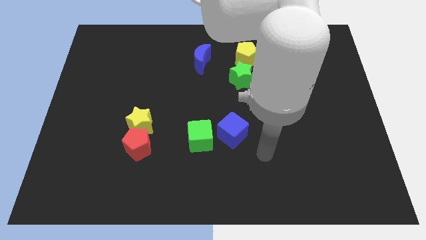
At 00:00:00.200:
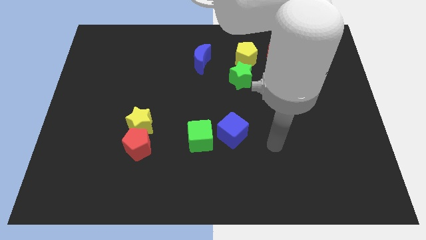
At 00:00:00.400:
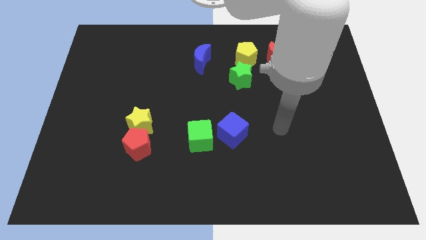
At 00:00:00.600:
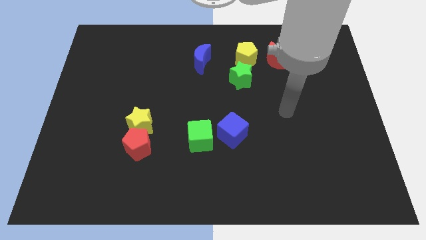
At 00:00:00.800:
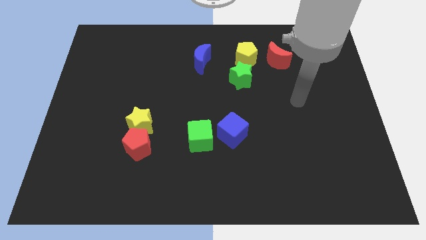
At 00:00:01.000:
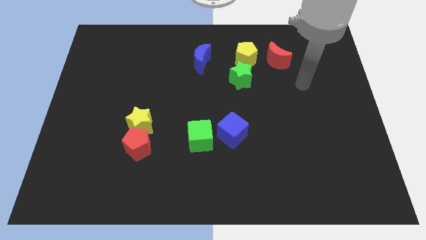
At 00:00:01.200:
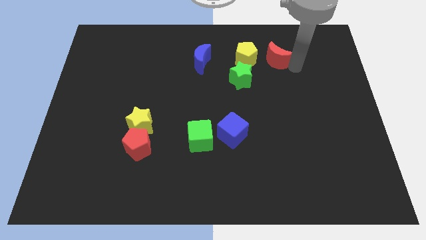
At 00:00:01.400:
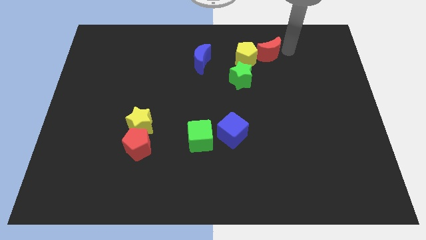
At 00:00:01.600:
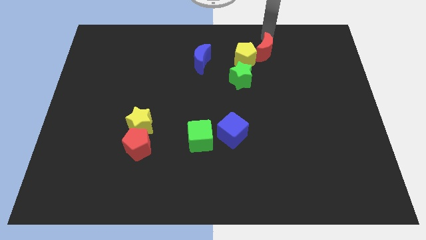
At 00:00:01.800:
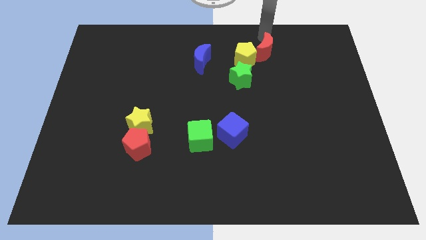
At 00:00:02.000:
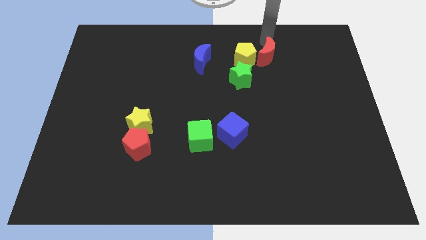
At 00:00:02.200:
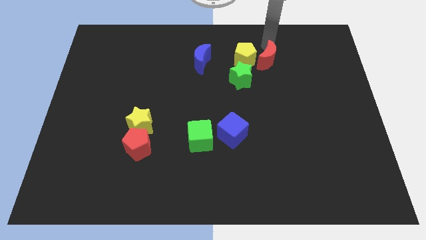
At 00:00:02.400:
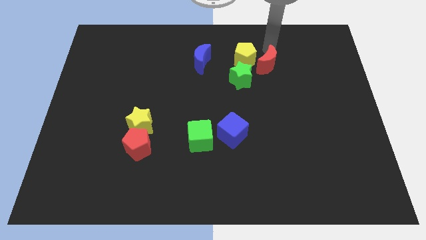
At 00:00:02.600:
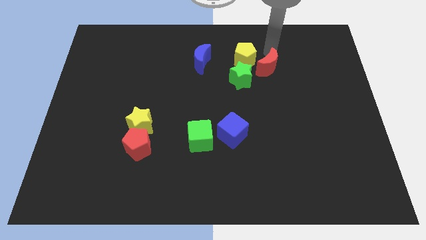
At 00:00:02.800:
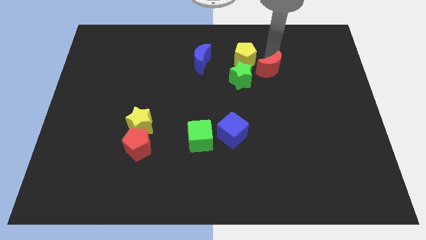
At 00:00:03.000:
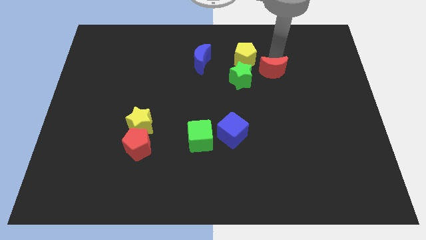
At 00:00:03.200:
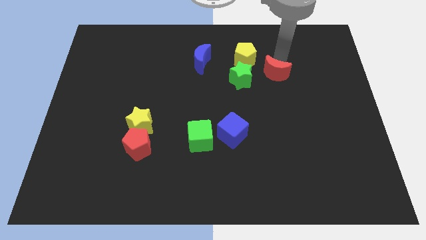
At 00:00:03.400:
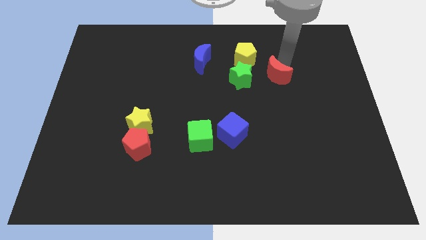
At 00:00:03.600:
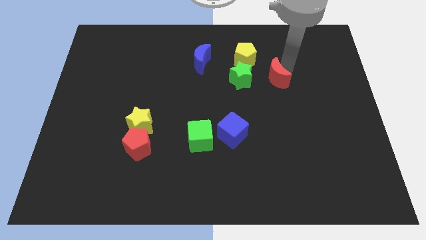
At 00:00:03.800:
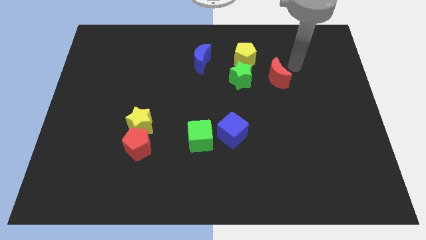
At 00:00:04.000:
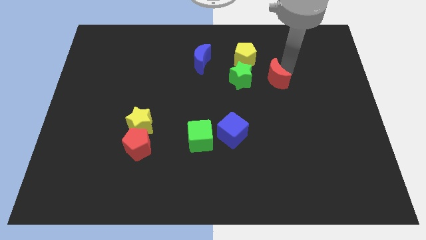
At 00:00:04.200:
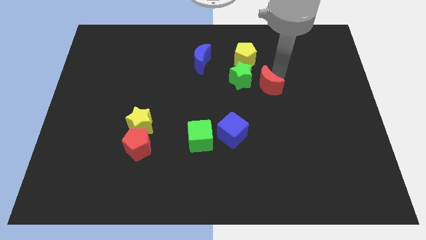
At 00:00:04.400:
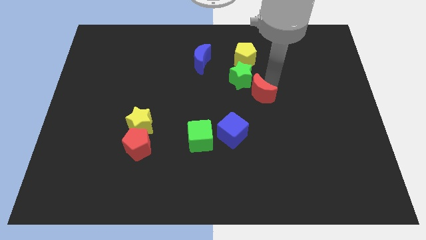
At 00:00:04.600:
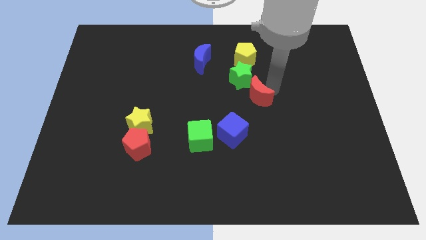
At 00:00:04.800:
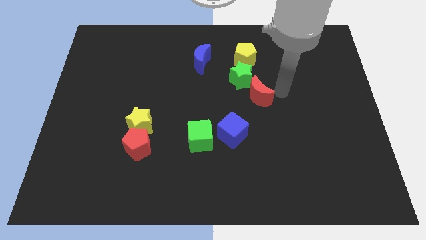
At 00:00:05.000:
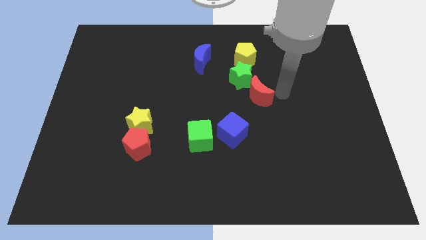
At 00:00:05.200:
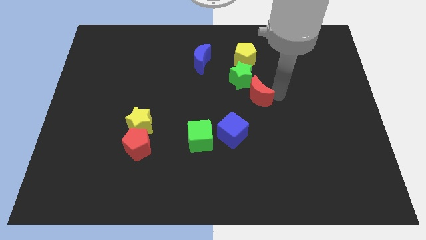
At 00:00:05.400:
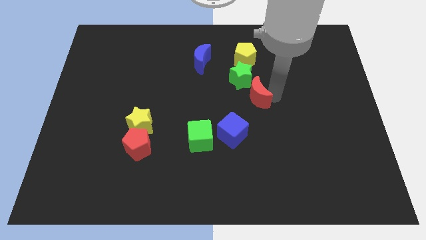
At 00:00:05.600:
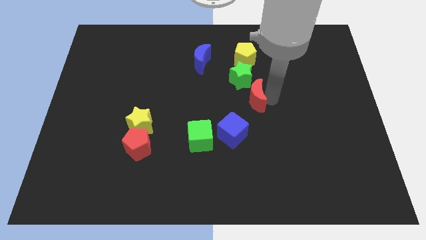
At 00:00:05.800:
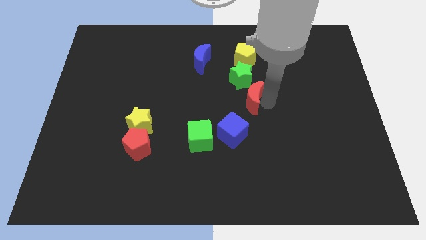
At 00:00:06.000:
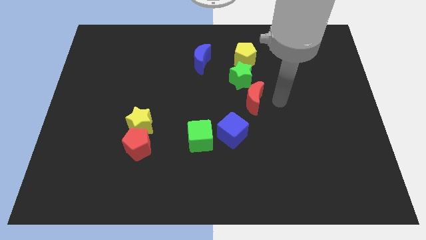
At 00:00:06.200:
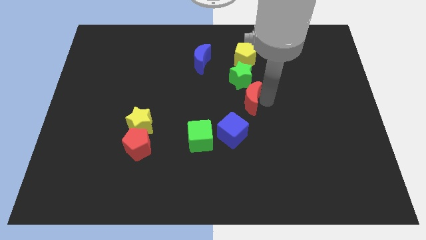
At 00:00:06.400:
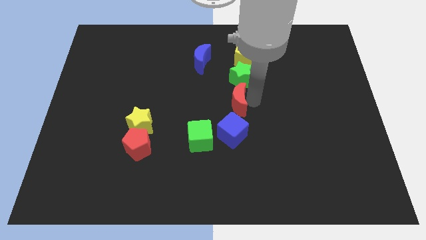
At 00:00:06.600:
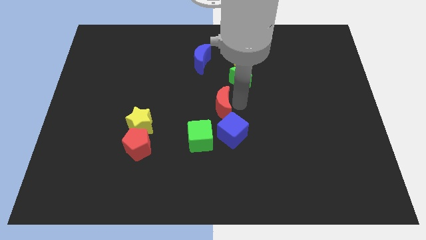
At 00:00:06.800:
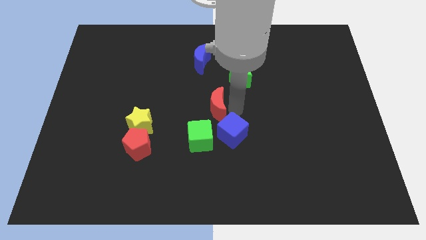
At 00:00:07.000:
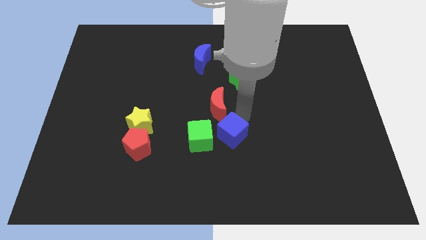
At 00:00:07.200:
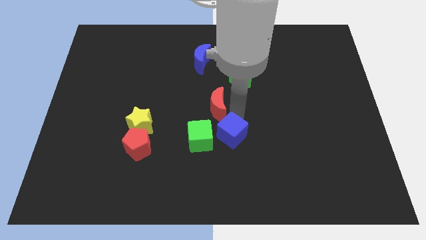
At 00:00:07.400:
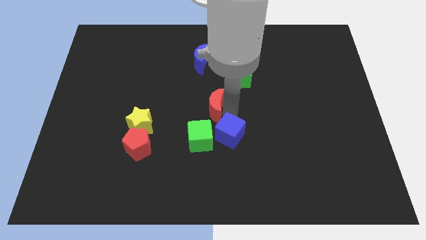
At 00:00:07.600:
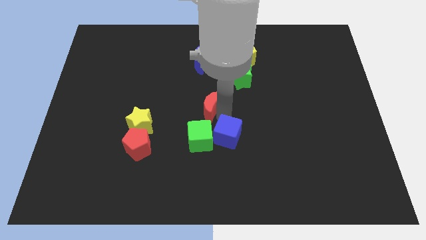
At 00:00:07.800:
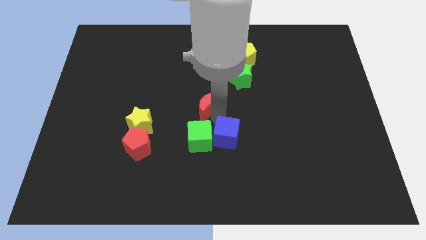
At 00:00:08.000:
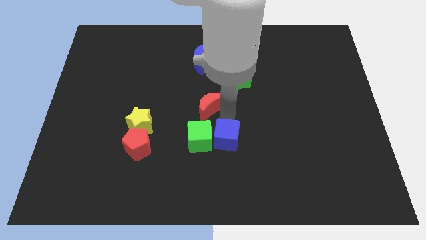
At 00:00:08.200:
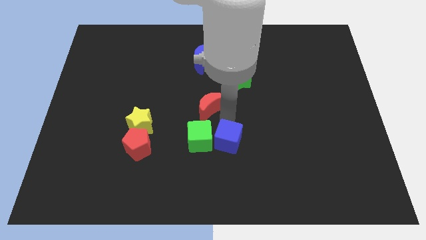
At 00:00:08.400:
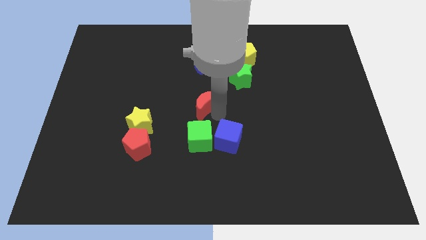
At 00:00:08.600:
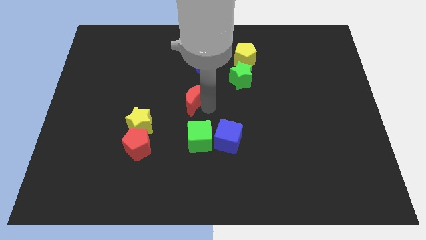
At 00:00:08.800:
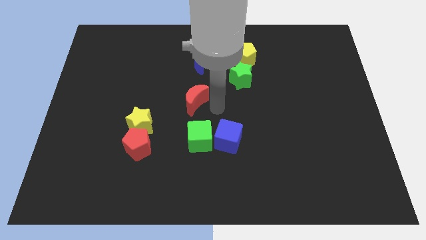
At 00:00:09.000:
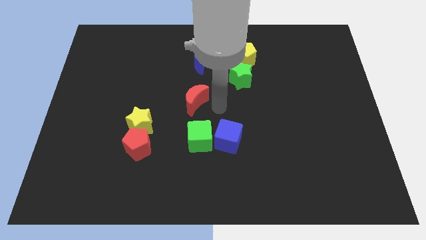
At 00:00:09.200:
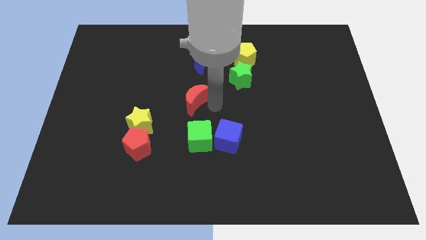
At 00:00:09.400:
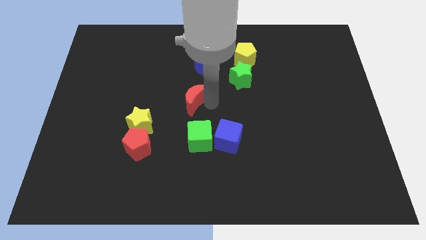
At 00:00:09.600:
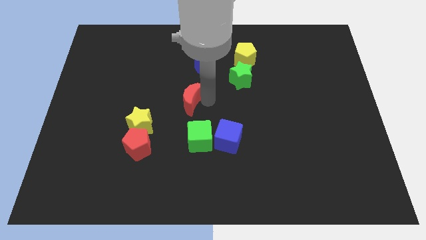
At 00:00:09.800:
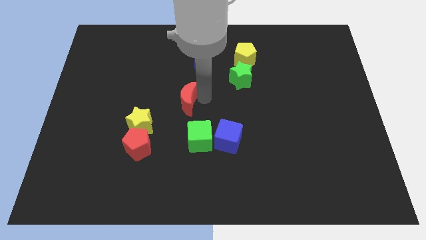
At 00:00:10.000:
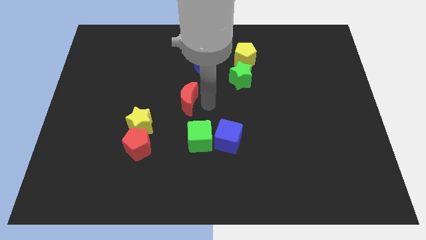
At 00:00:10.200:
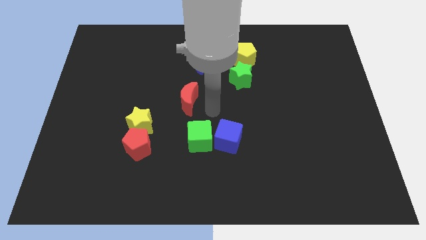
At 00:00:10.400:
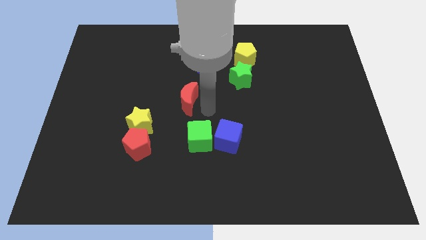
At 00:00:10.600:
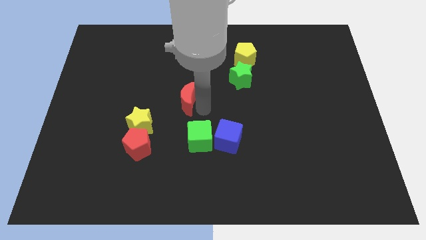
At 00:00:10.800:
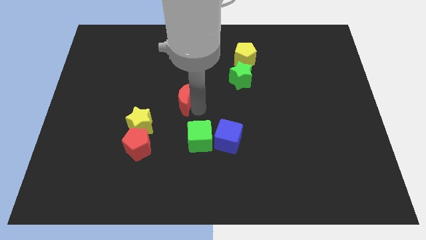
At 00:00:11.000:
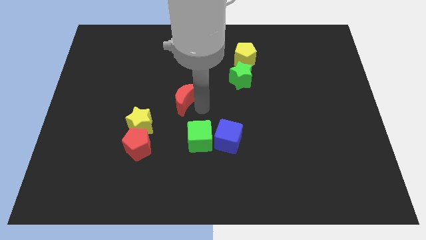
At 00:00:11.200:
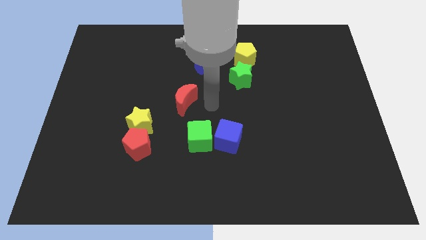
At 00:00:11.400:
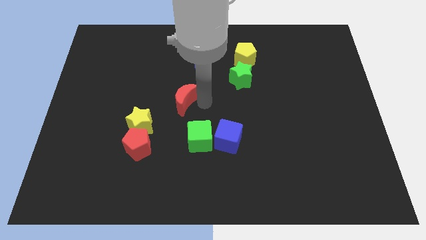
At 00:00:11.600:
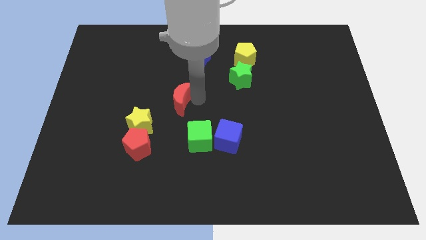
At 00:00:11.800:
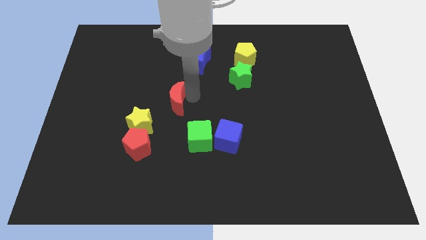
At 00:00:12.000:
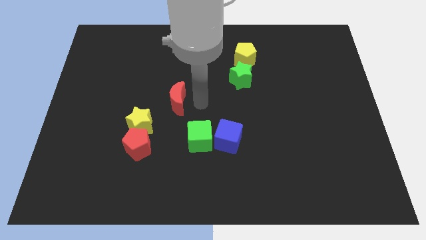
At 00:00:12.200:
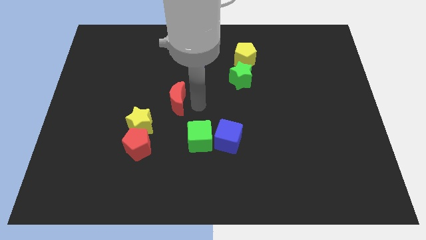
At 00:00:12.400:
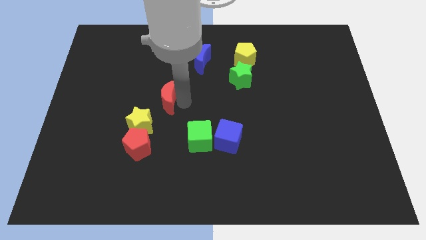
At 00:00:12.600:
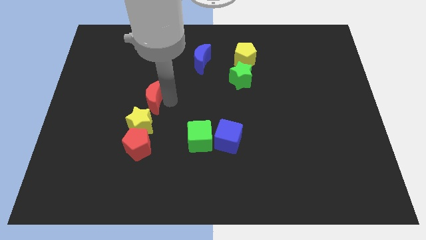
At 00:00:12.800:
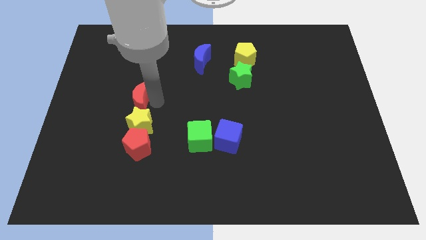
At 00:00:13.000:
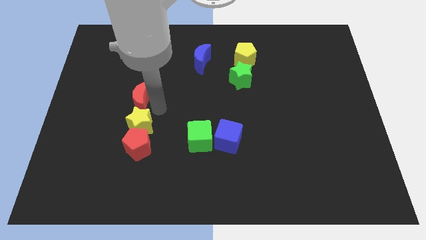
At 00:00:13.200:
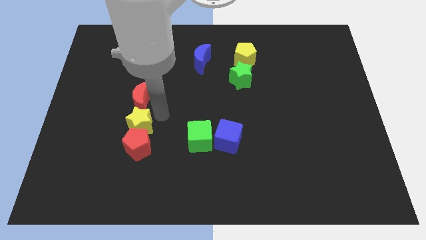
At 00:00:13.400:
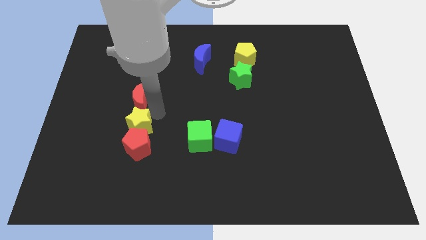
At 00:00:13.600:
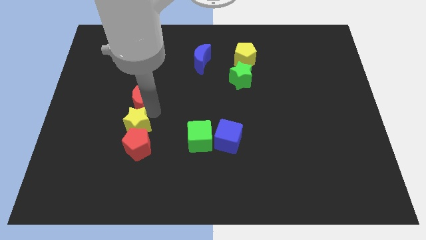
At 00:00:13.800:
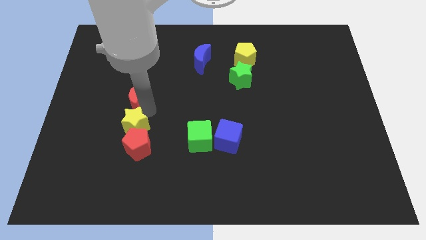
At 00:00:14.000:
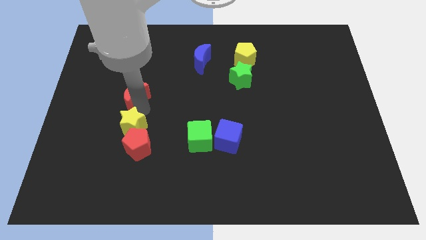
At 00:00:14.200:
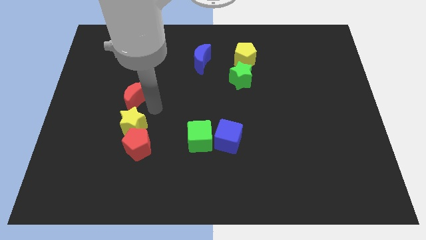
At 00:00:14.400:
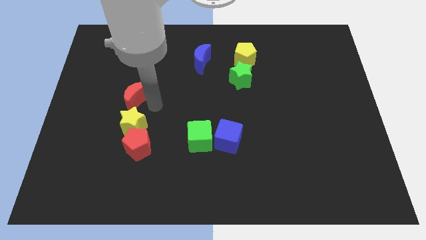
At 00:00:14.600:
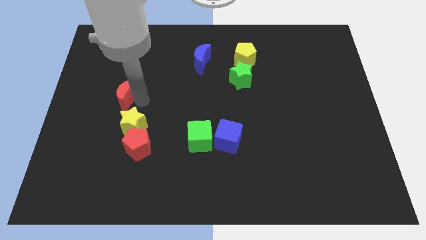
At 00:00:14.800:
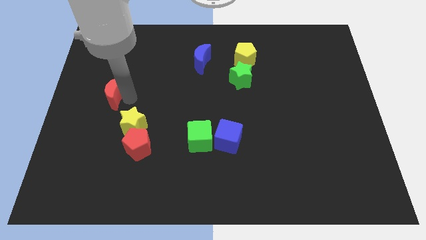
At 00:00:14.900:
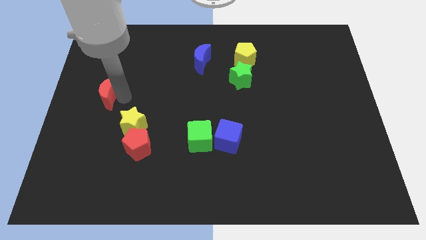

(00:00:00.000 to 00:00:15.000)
push the red moon to the left side of the board
